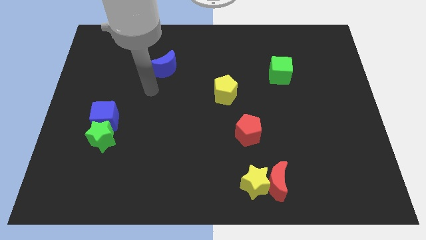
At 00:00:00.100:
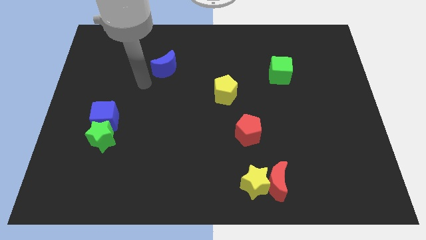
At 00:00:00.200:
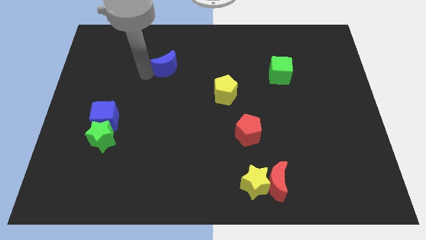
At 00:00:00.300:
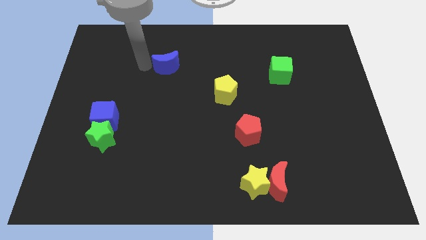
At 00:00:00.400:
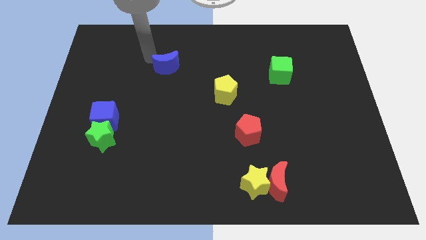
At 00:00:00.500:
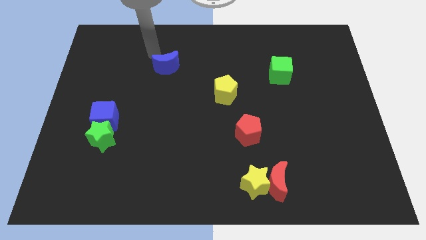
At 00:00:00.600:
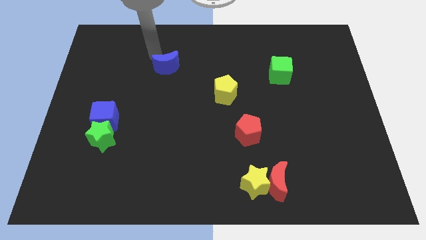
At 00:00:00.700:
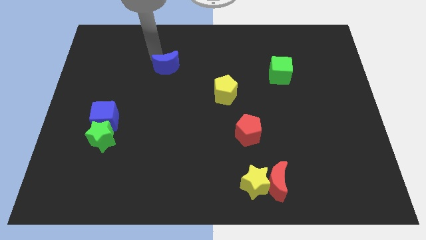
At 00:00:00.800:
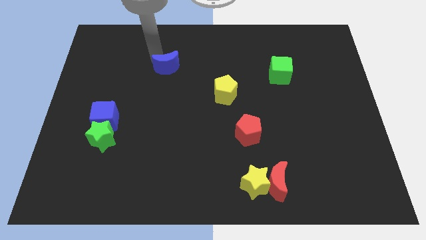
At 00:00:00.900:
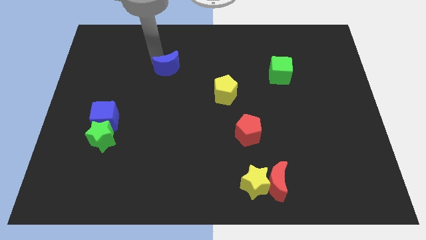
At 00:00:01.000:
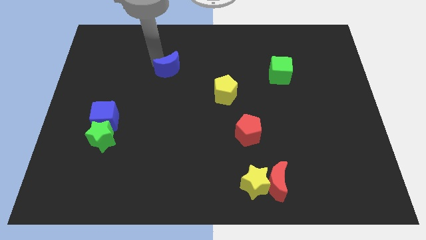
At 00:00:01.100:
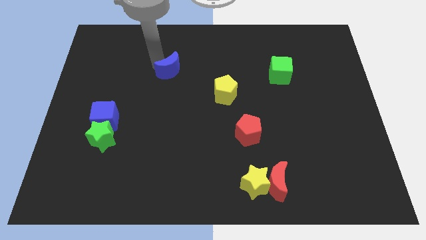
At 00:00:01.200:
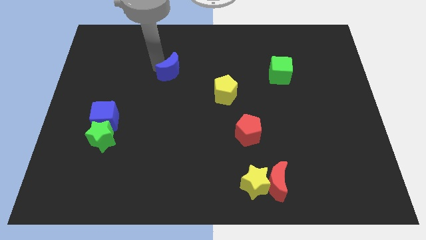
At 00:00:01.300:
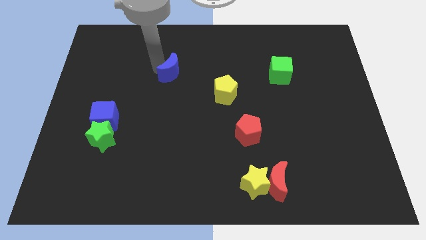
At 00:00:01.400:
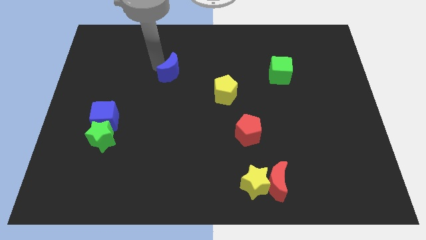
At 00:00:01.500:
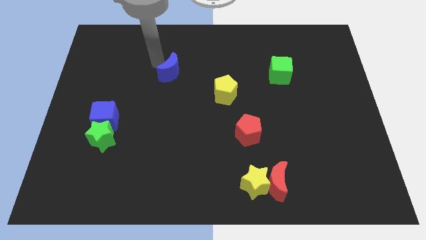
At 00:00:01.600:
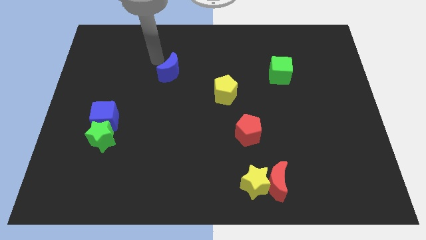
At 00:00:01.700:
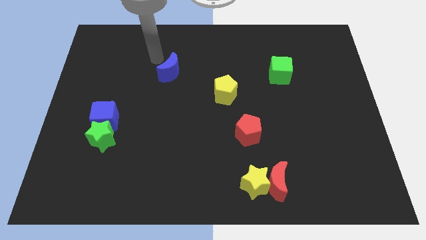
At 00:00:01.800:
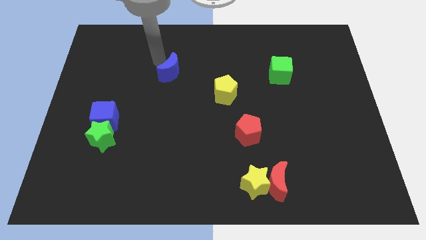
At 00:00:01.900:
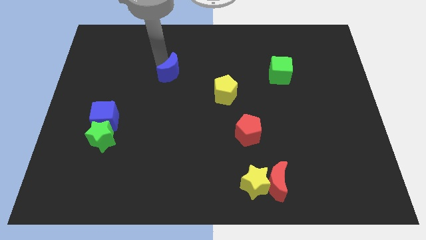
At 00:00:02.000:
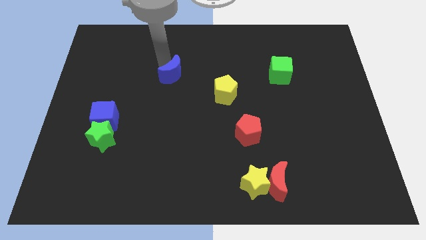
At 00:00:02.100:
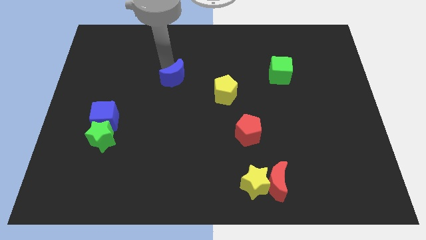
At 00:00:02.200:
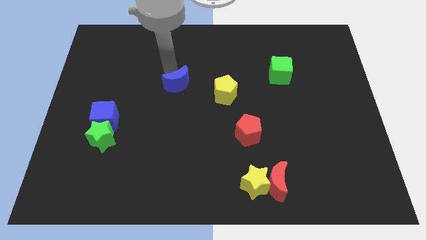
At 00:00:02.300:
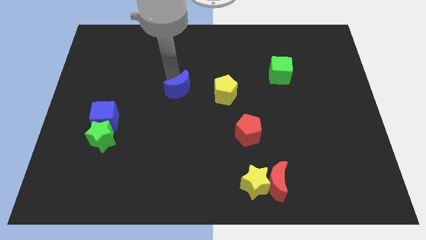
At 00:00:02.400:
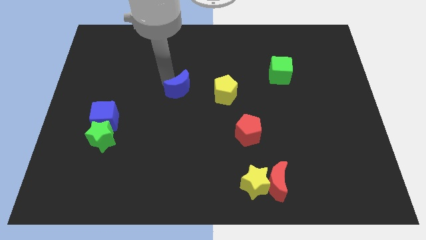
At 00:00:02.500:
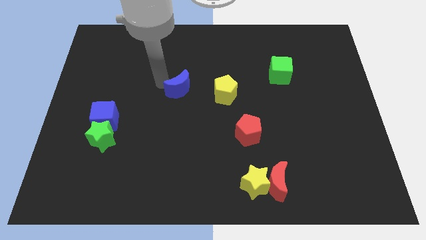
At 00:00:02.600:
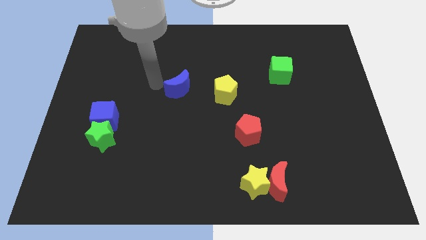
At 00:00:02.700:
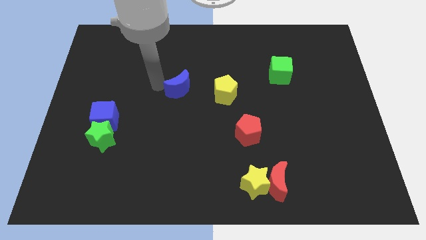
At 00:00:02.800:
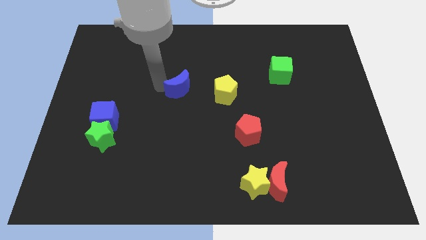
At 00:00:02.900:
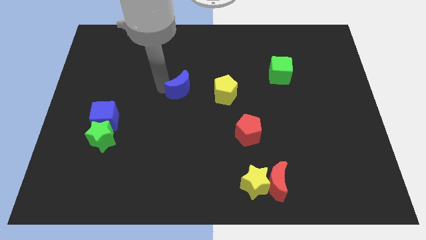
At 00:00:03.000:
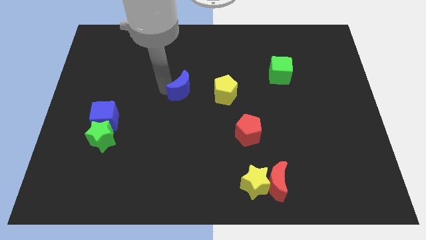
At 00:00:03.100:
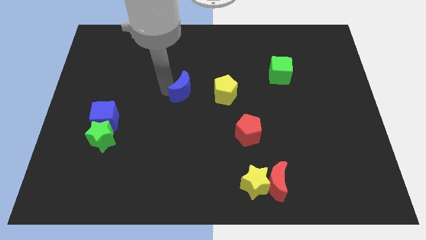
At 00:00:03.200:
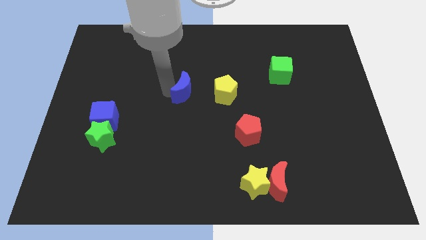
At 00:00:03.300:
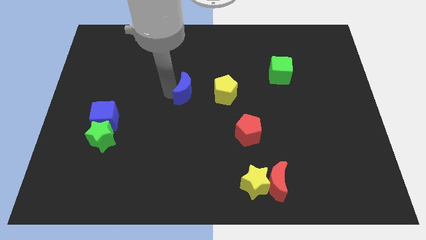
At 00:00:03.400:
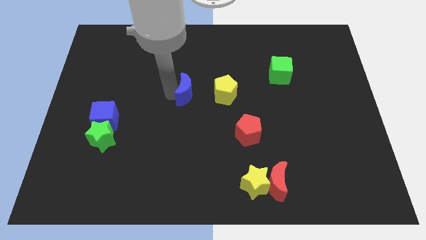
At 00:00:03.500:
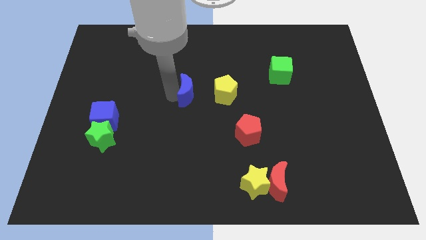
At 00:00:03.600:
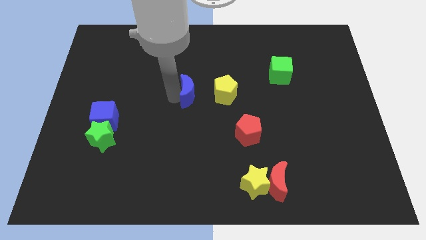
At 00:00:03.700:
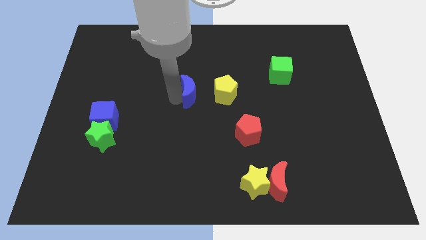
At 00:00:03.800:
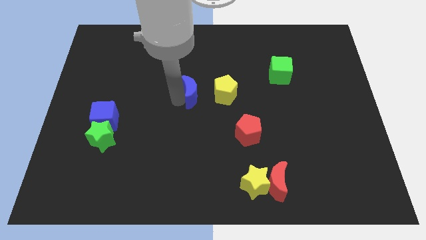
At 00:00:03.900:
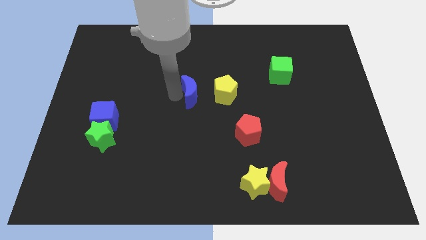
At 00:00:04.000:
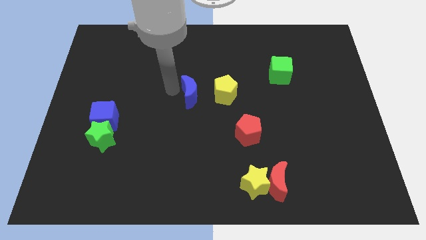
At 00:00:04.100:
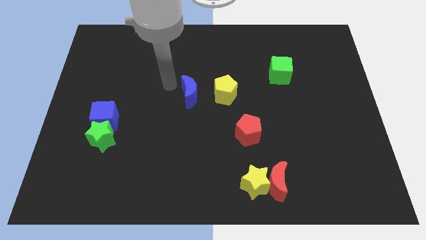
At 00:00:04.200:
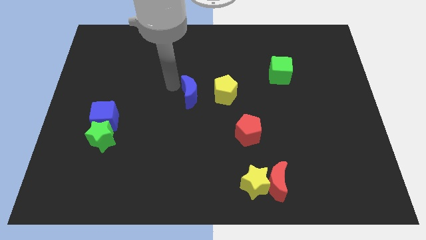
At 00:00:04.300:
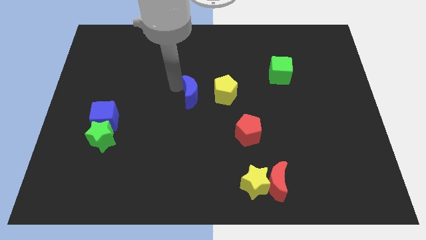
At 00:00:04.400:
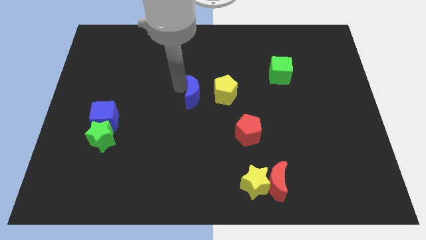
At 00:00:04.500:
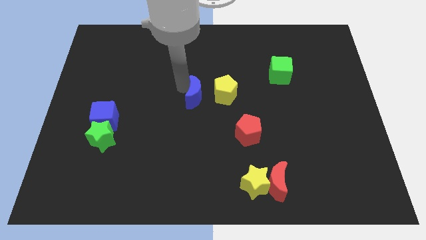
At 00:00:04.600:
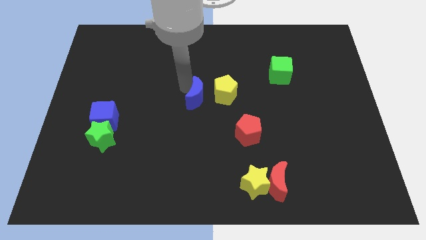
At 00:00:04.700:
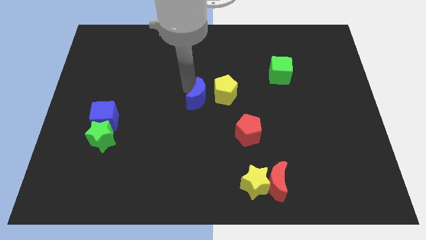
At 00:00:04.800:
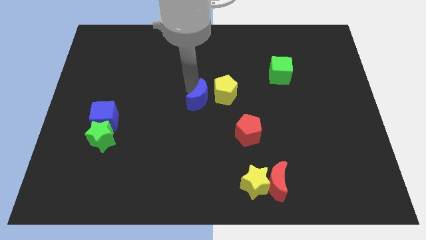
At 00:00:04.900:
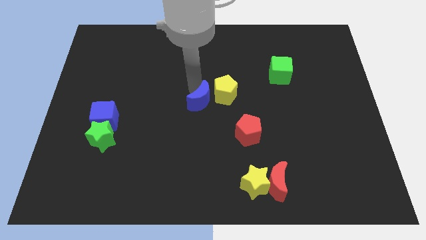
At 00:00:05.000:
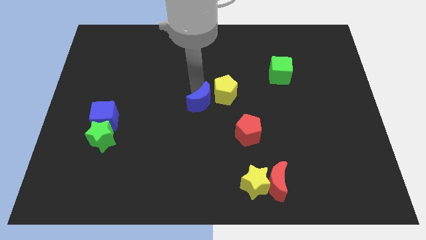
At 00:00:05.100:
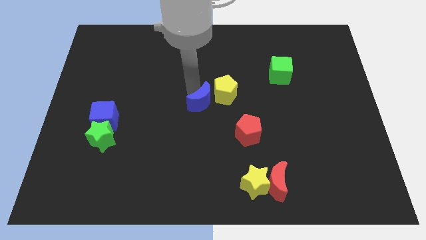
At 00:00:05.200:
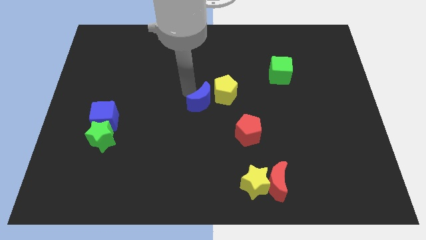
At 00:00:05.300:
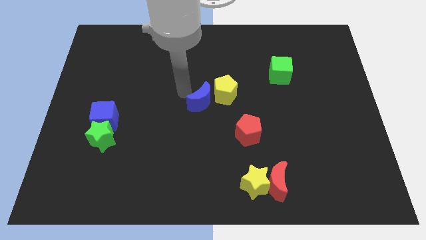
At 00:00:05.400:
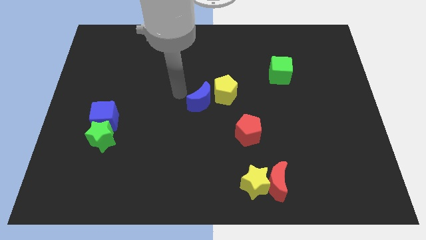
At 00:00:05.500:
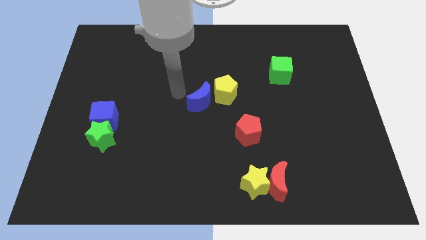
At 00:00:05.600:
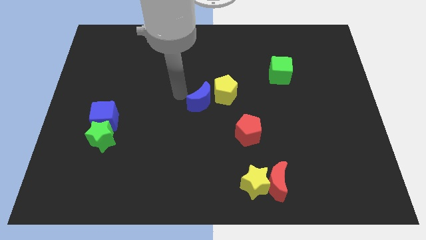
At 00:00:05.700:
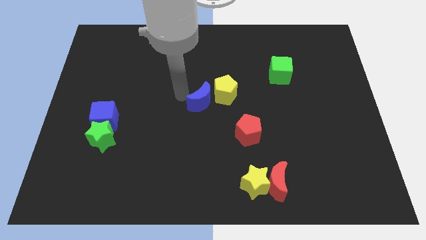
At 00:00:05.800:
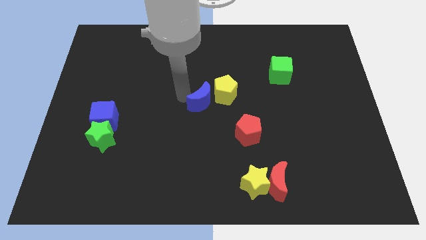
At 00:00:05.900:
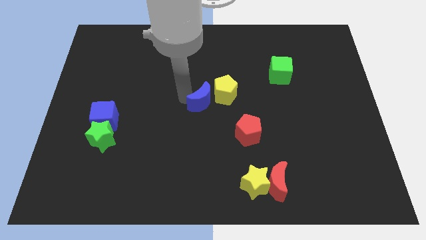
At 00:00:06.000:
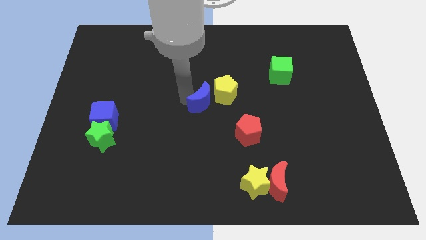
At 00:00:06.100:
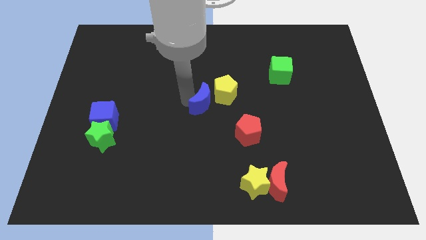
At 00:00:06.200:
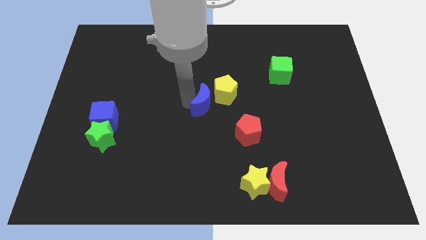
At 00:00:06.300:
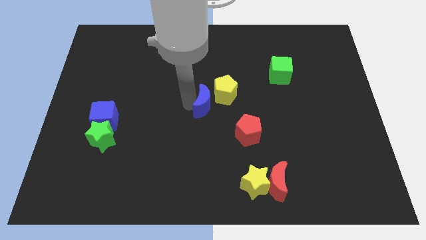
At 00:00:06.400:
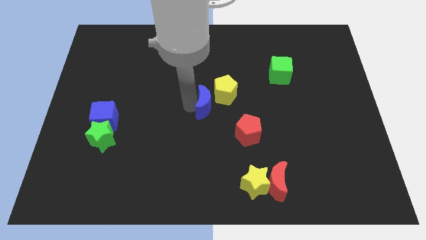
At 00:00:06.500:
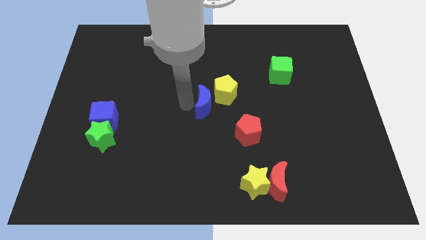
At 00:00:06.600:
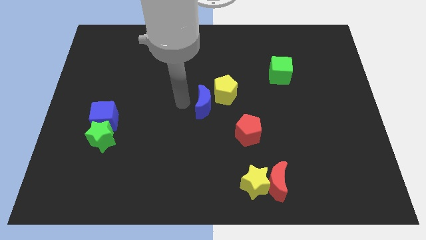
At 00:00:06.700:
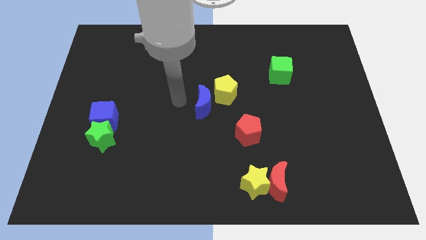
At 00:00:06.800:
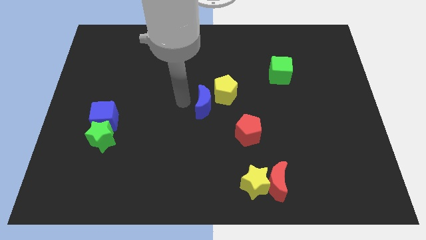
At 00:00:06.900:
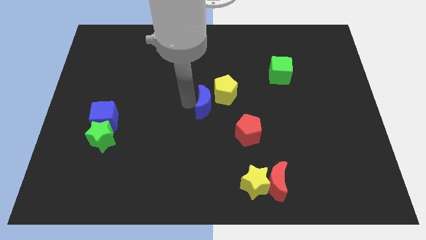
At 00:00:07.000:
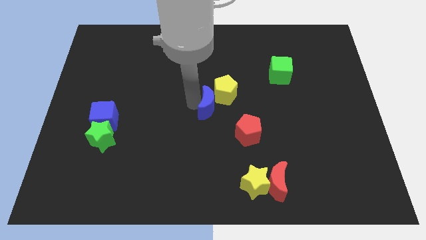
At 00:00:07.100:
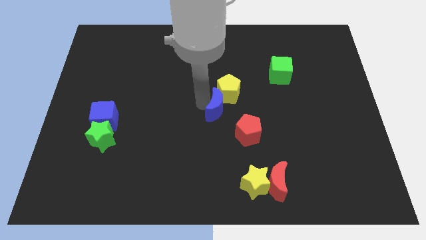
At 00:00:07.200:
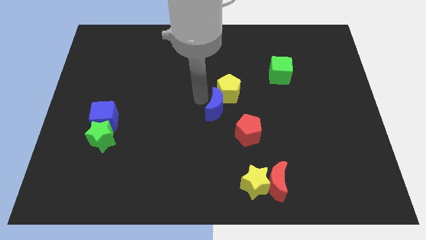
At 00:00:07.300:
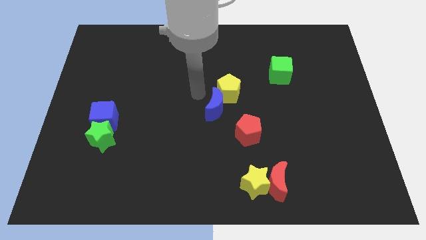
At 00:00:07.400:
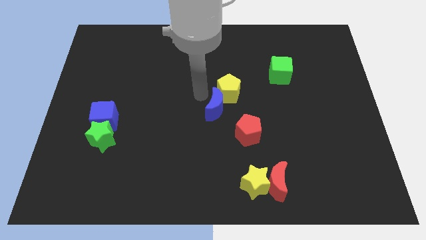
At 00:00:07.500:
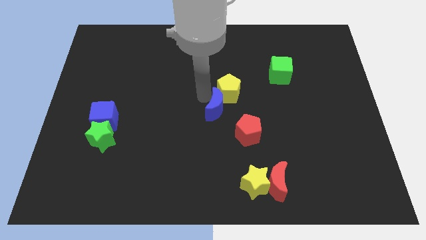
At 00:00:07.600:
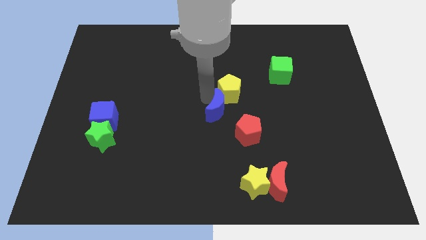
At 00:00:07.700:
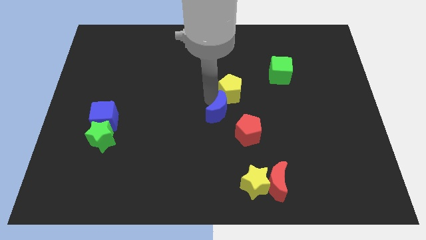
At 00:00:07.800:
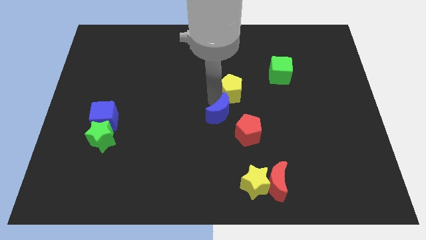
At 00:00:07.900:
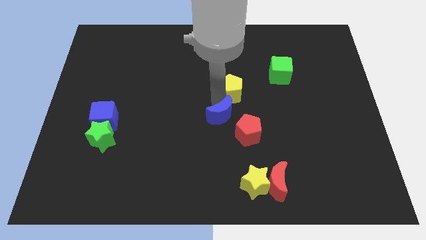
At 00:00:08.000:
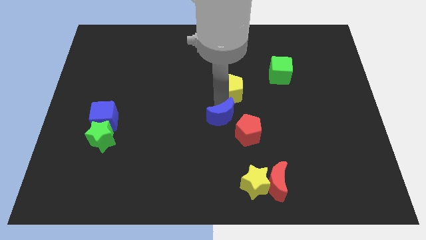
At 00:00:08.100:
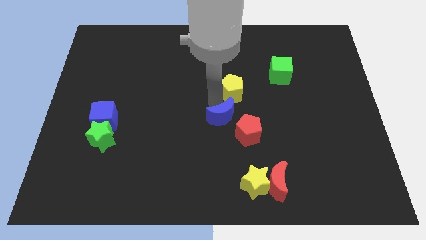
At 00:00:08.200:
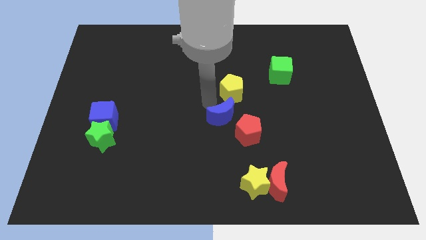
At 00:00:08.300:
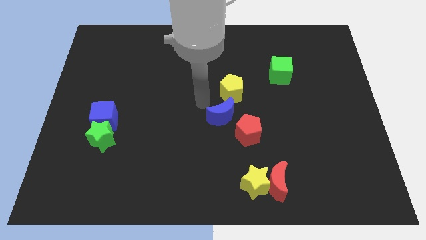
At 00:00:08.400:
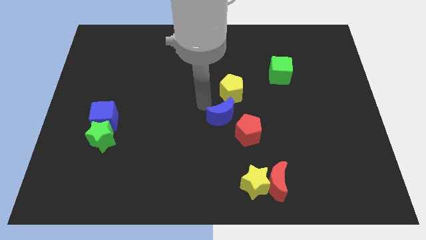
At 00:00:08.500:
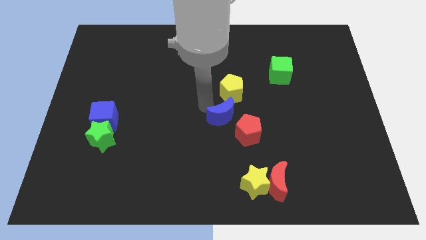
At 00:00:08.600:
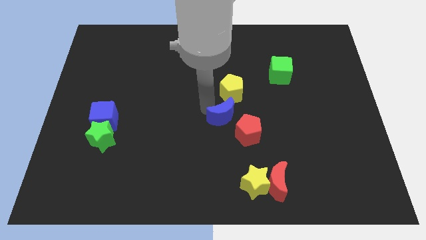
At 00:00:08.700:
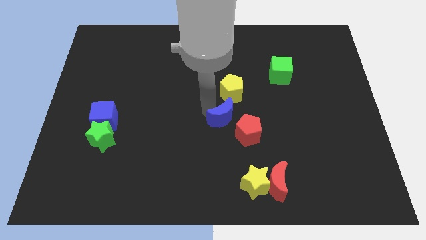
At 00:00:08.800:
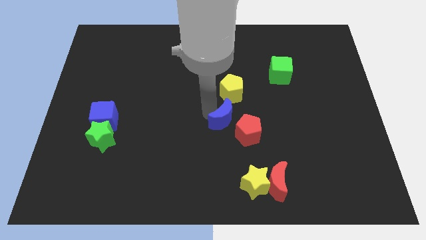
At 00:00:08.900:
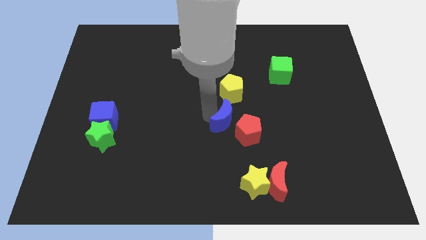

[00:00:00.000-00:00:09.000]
move the blue moon next to the red pentagon
